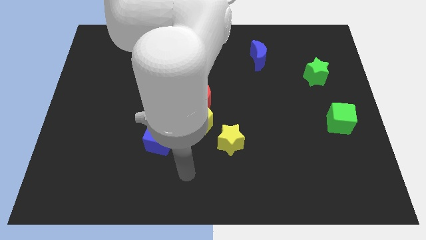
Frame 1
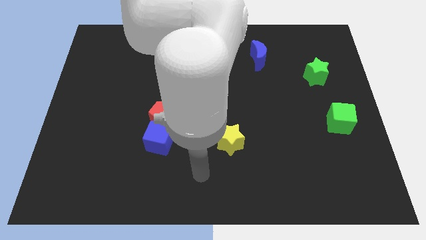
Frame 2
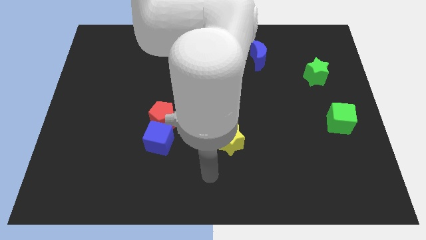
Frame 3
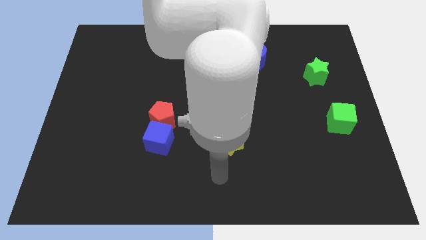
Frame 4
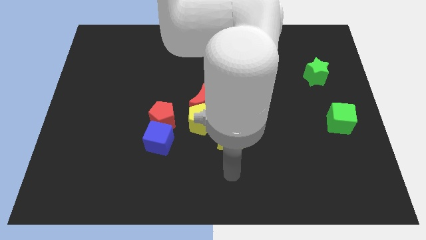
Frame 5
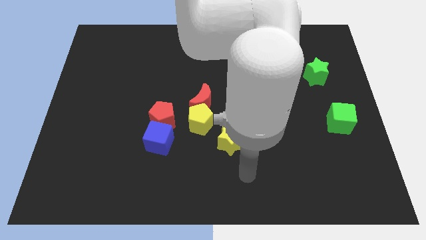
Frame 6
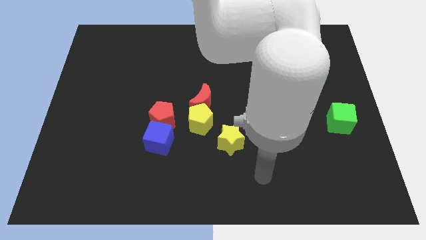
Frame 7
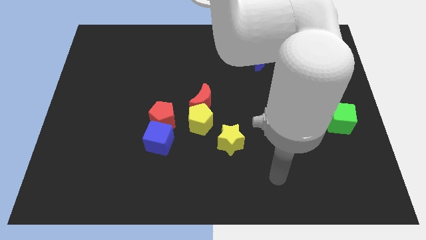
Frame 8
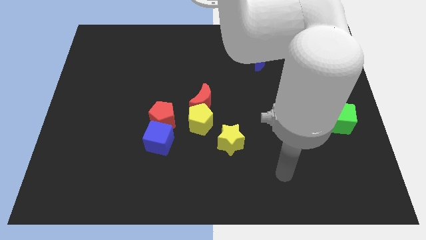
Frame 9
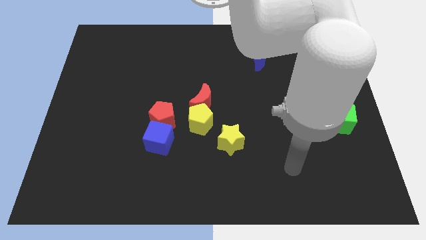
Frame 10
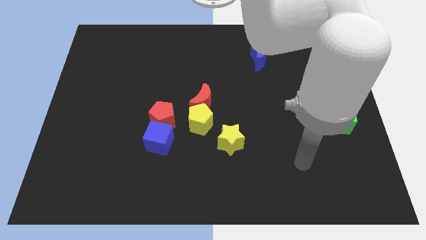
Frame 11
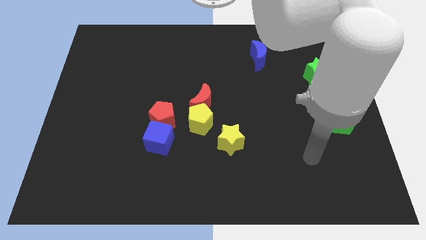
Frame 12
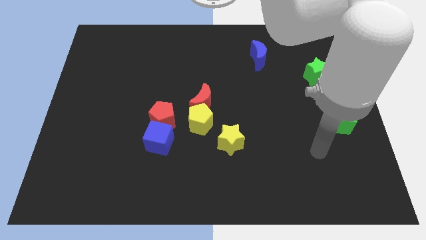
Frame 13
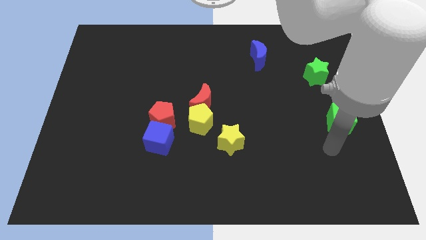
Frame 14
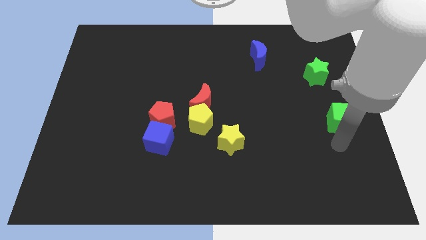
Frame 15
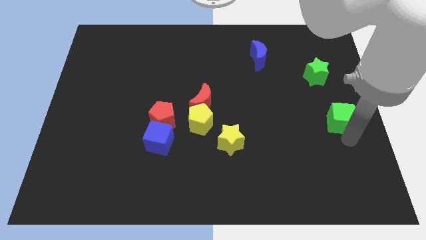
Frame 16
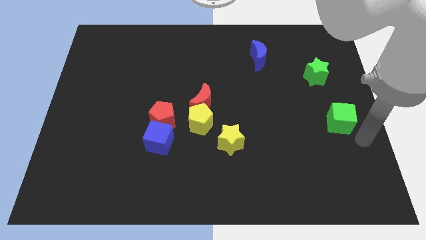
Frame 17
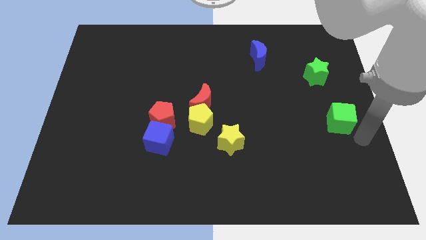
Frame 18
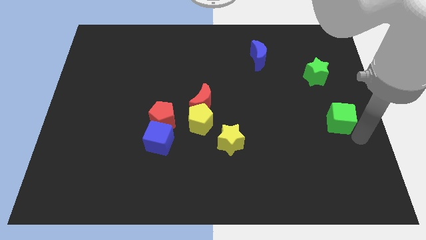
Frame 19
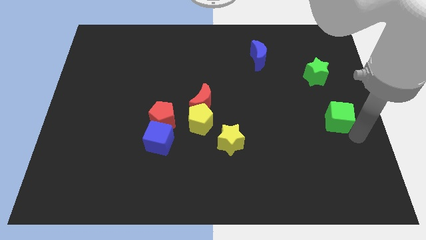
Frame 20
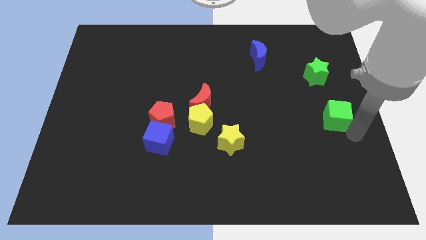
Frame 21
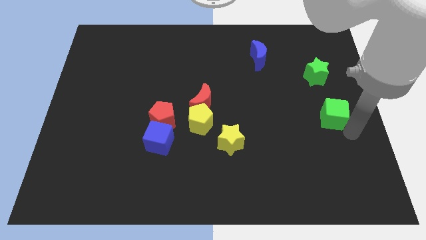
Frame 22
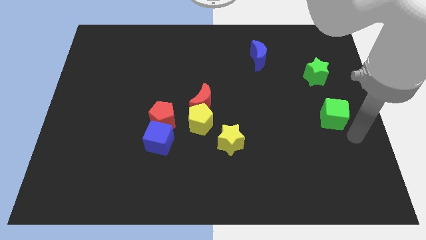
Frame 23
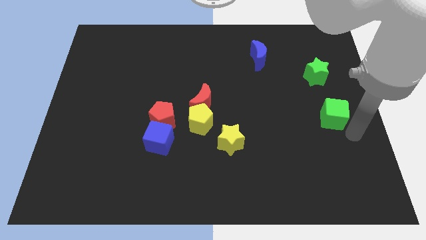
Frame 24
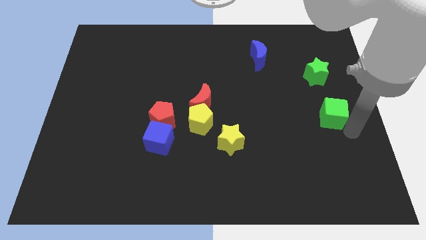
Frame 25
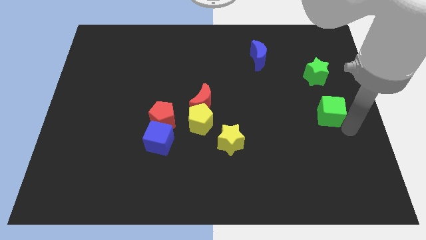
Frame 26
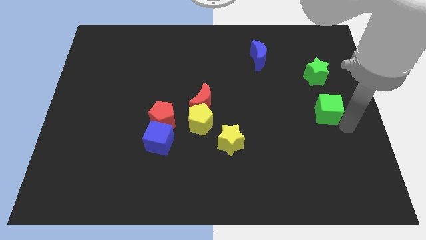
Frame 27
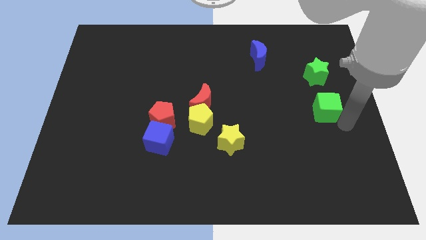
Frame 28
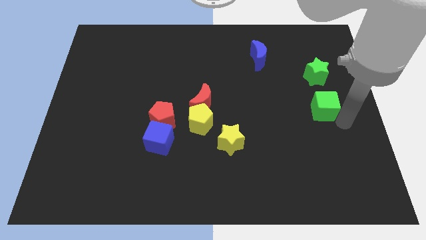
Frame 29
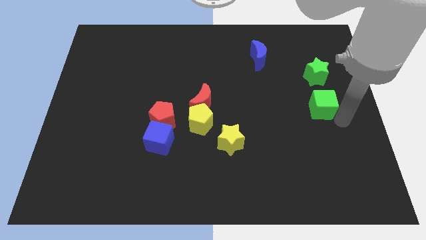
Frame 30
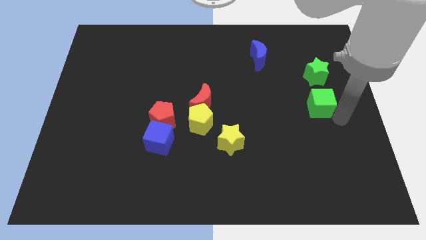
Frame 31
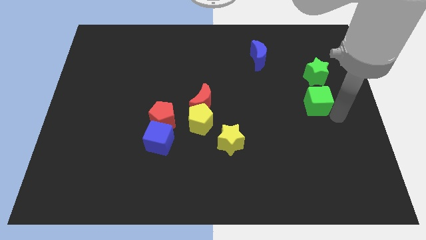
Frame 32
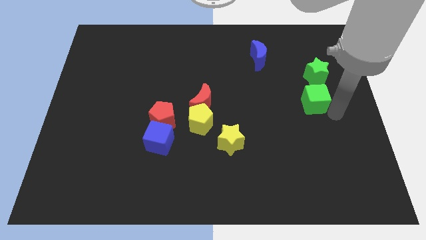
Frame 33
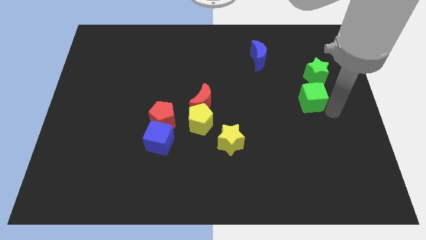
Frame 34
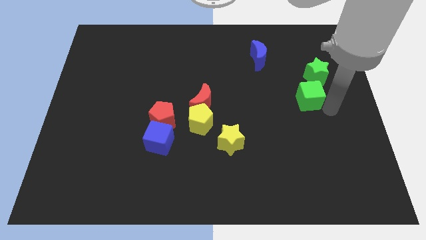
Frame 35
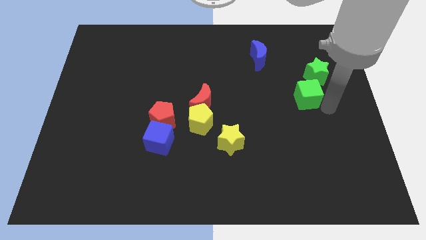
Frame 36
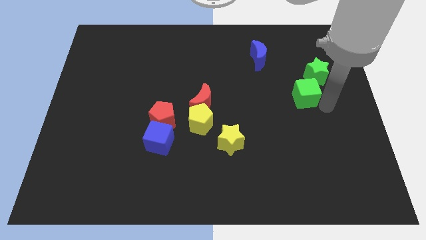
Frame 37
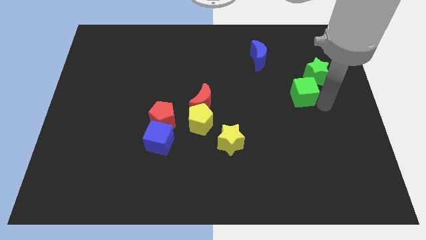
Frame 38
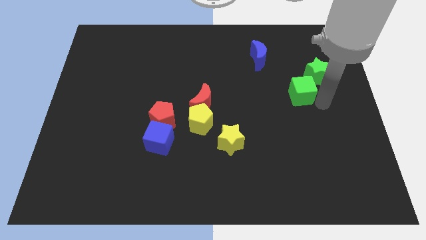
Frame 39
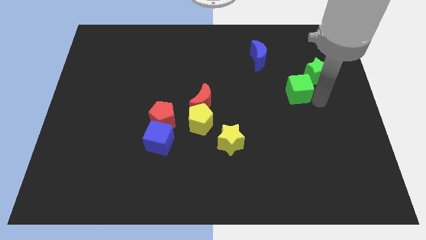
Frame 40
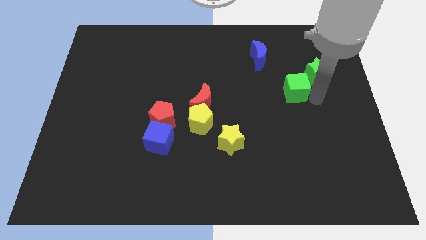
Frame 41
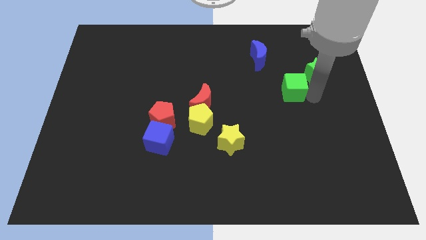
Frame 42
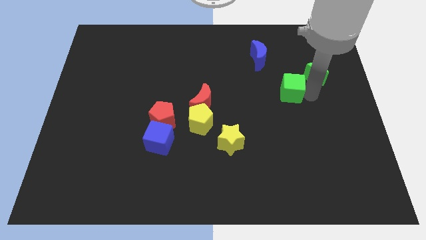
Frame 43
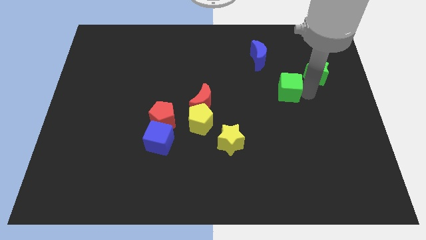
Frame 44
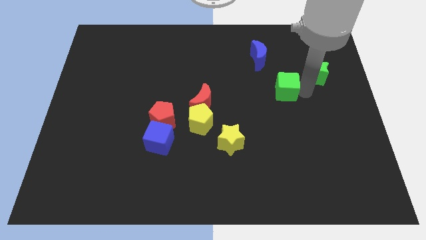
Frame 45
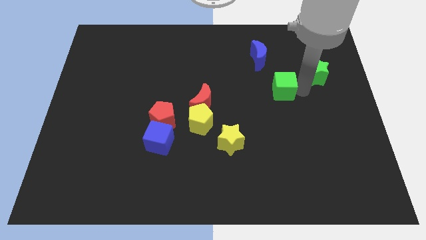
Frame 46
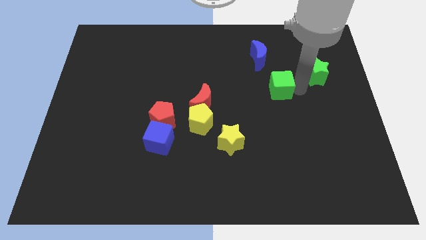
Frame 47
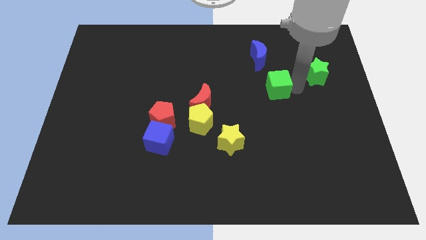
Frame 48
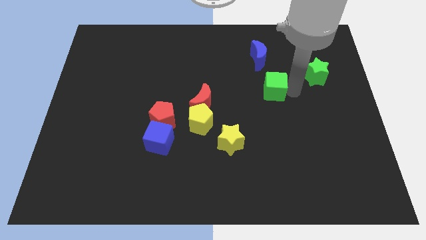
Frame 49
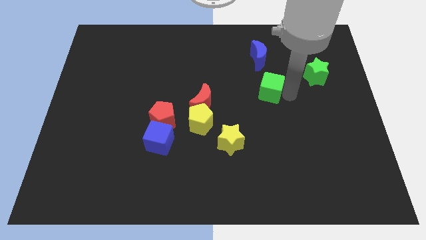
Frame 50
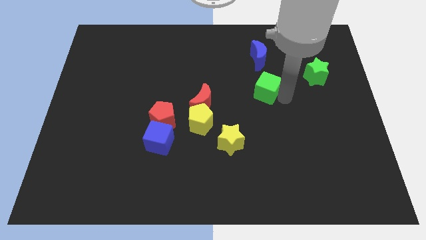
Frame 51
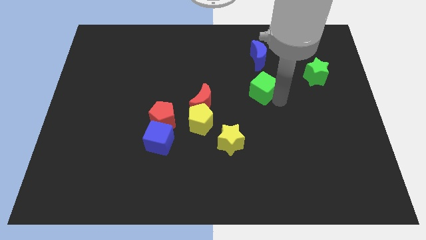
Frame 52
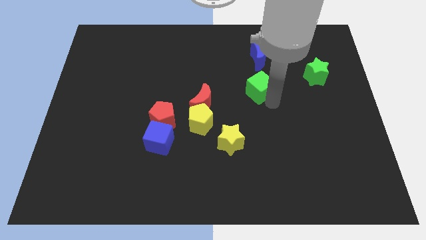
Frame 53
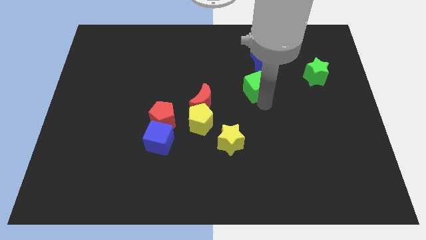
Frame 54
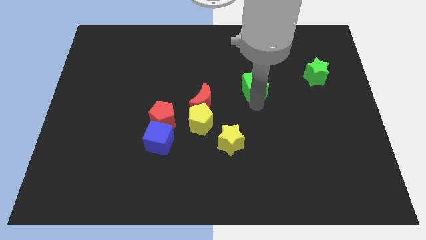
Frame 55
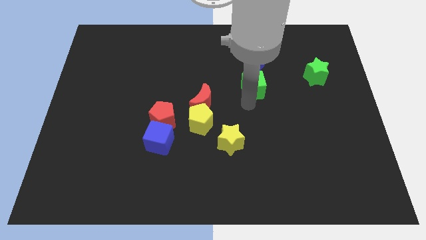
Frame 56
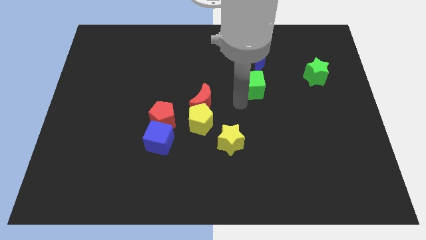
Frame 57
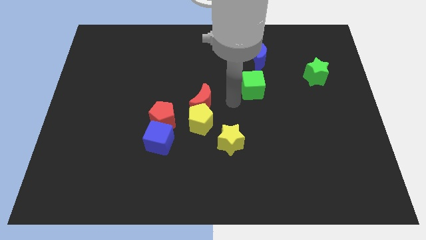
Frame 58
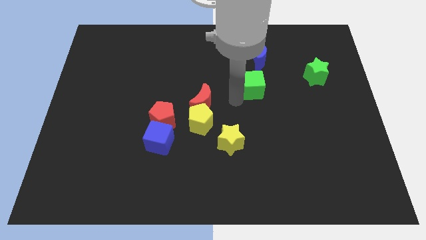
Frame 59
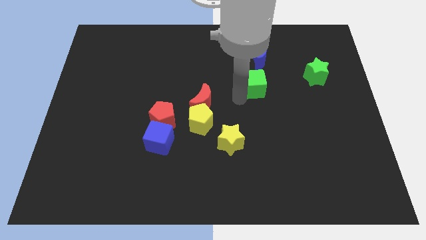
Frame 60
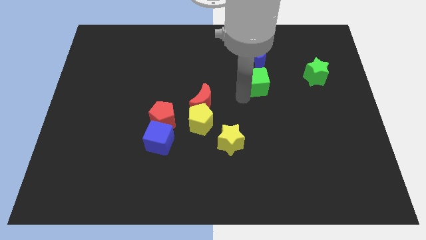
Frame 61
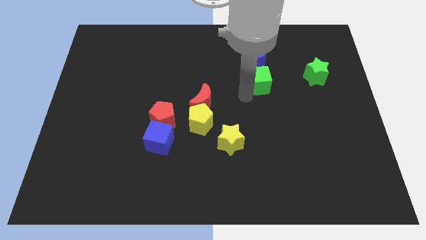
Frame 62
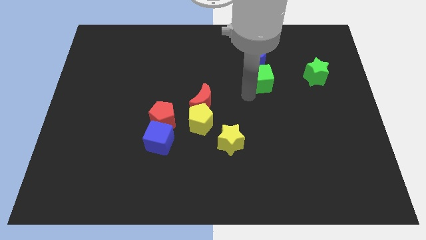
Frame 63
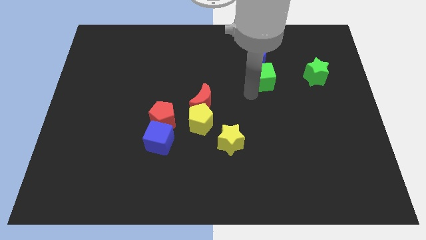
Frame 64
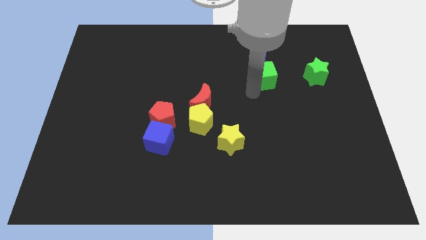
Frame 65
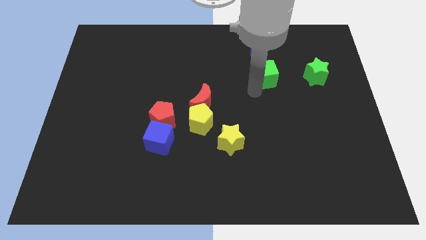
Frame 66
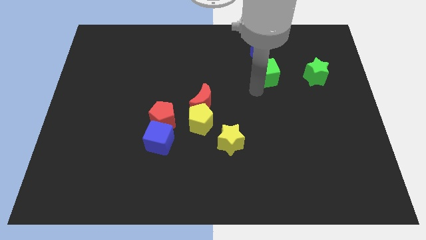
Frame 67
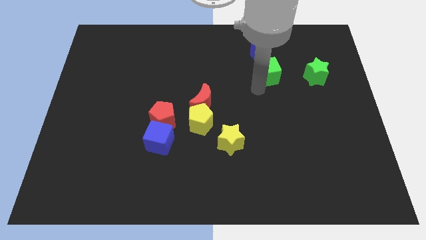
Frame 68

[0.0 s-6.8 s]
slide the green cube close to the blue moon
